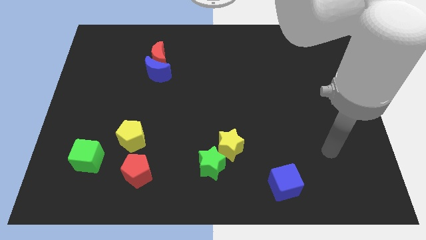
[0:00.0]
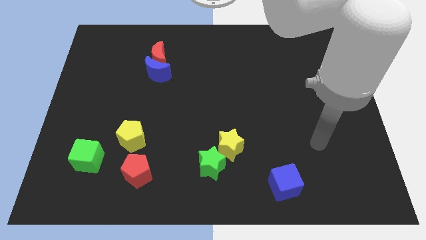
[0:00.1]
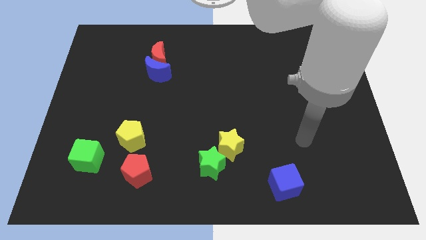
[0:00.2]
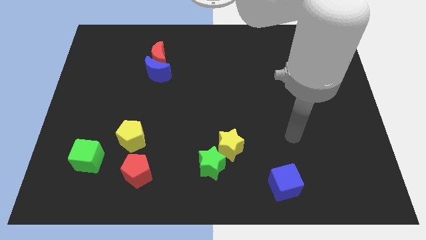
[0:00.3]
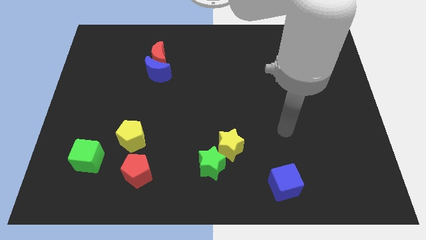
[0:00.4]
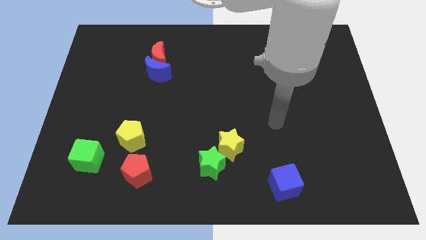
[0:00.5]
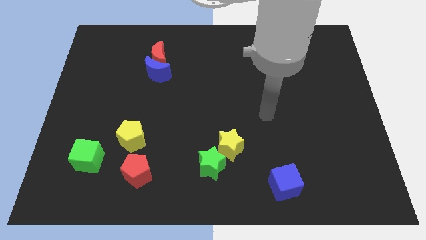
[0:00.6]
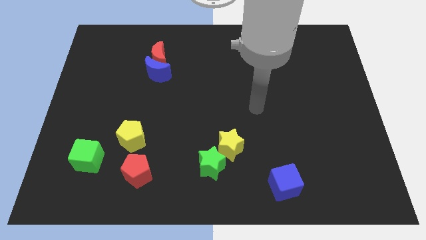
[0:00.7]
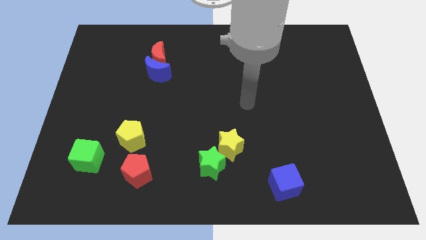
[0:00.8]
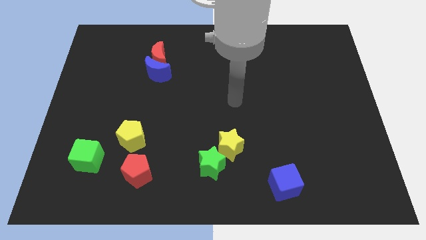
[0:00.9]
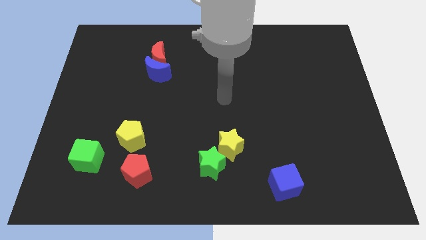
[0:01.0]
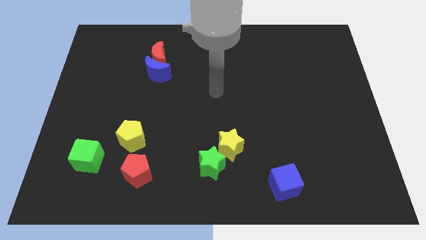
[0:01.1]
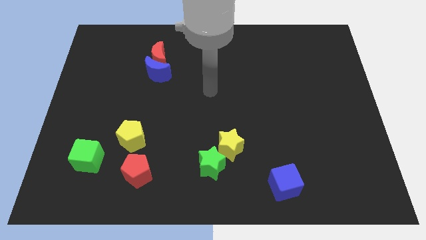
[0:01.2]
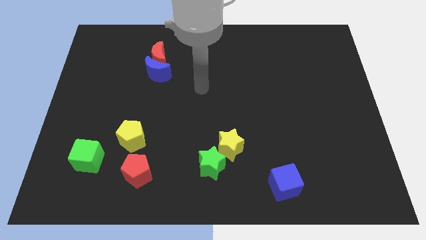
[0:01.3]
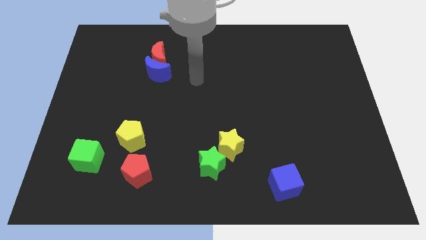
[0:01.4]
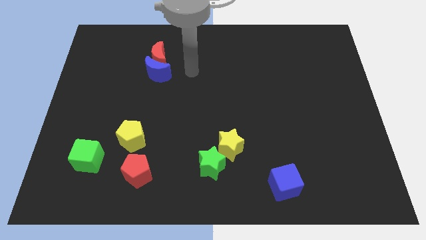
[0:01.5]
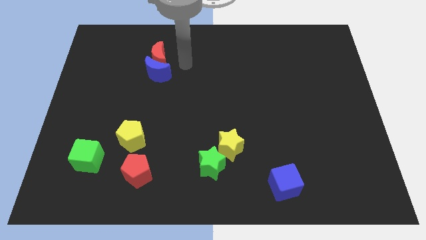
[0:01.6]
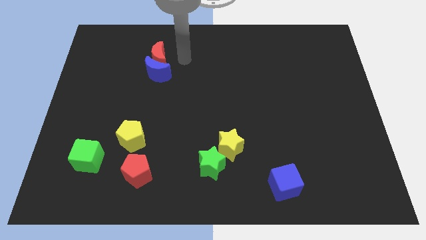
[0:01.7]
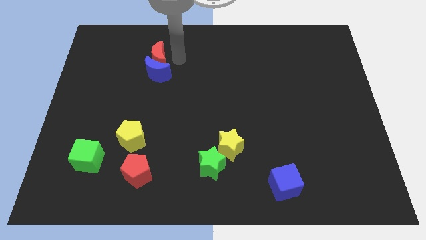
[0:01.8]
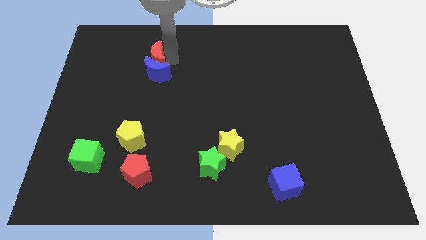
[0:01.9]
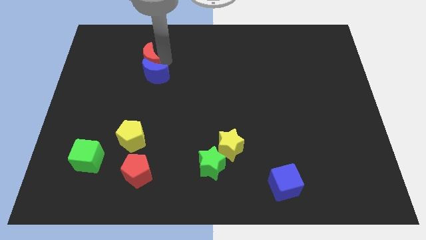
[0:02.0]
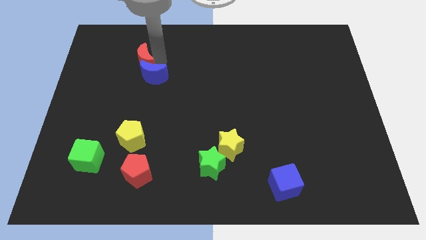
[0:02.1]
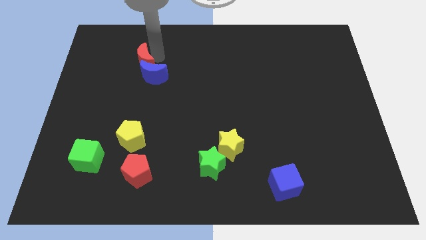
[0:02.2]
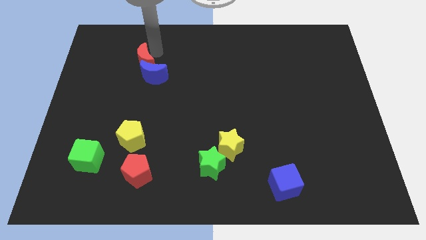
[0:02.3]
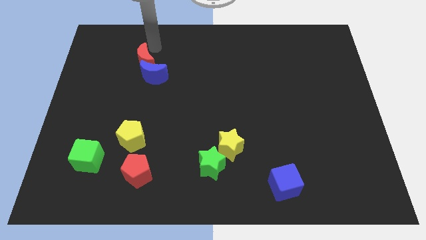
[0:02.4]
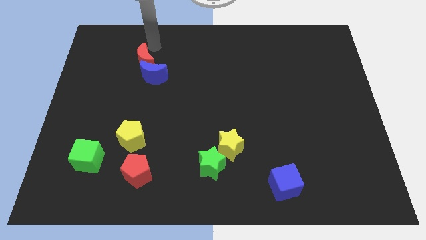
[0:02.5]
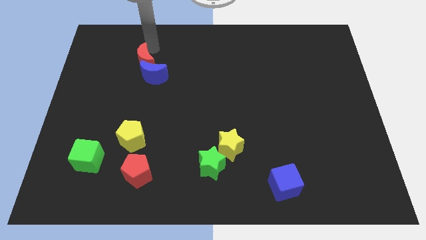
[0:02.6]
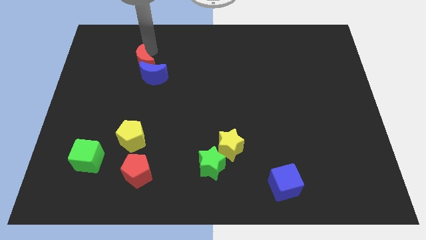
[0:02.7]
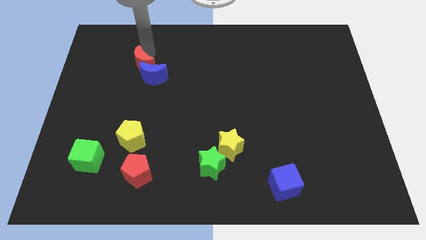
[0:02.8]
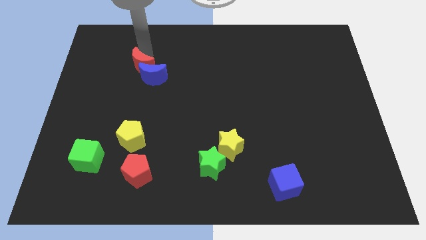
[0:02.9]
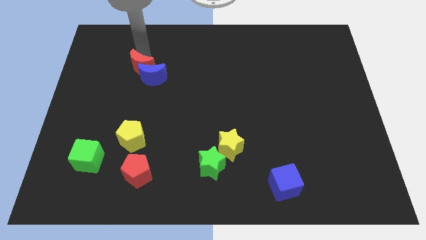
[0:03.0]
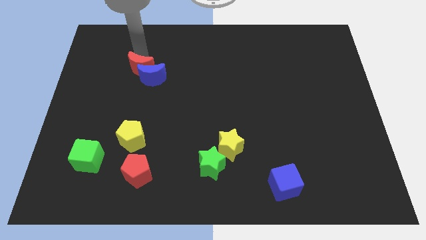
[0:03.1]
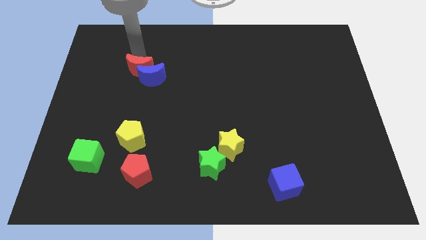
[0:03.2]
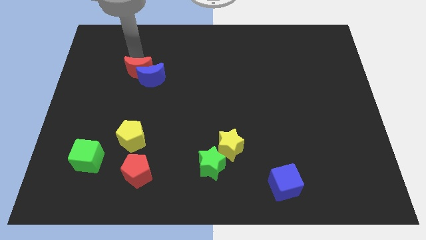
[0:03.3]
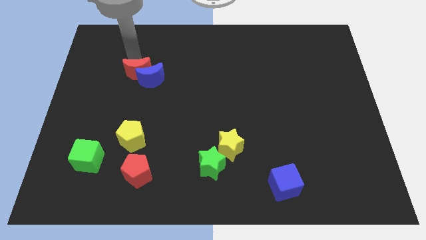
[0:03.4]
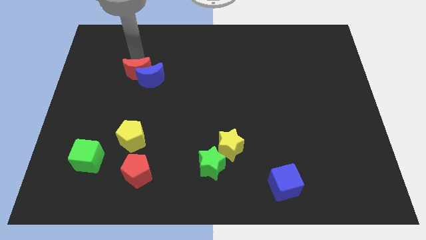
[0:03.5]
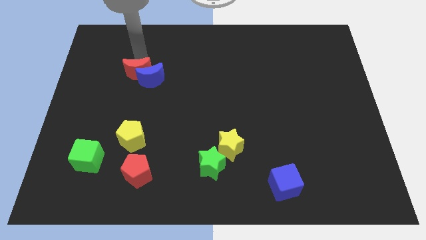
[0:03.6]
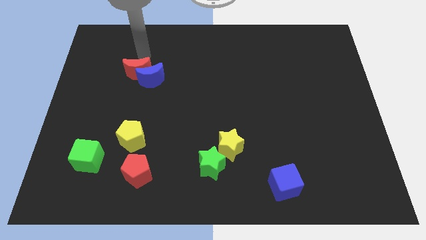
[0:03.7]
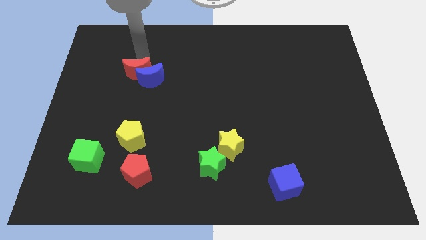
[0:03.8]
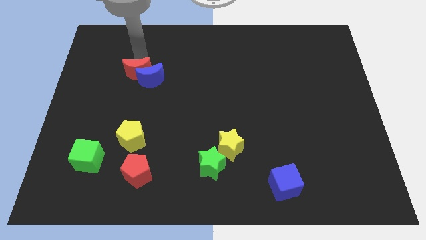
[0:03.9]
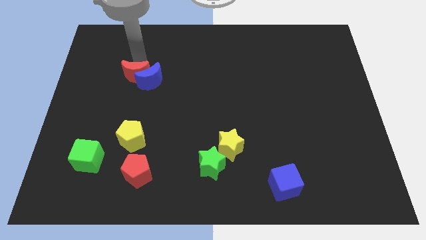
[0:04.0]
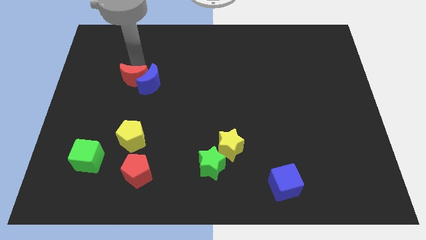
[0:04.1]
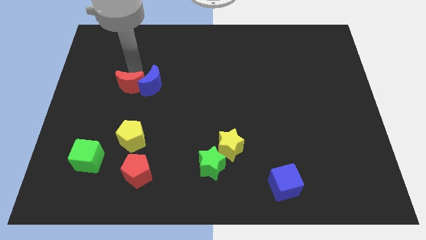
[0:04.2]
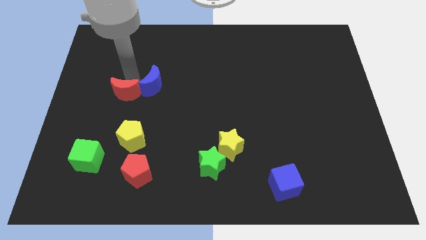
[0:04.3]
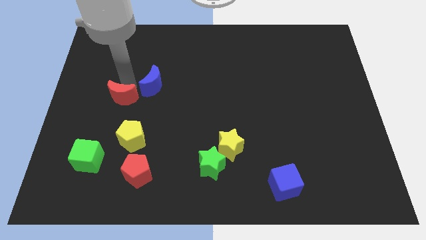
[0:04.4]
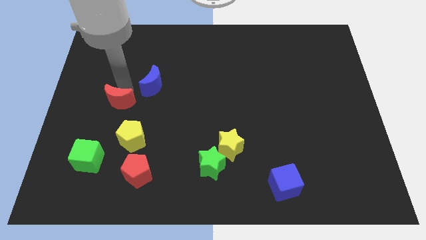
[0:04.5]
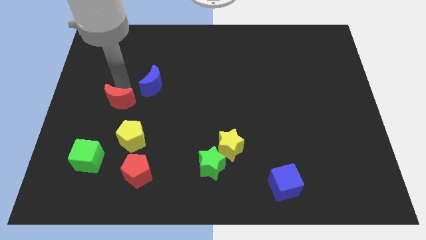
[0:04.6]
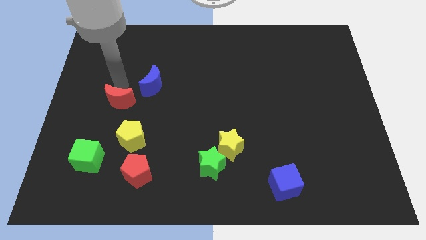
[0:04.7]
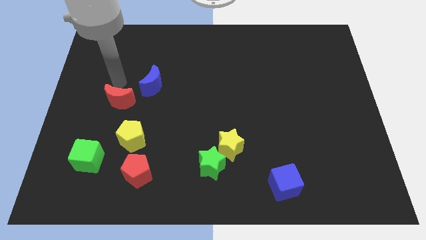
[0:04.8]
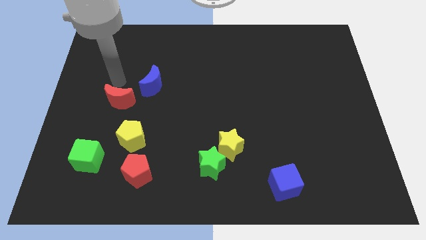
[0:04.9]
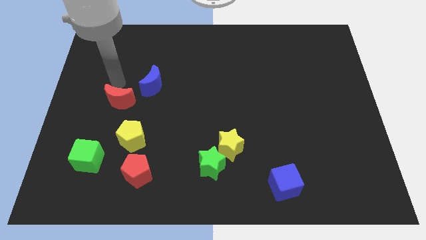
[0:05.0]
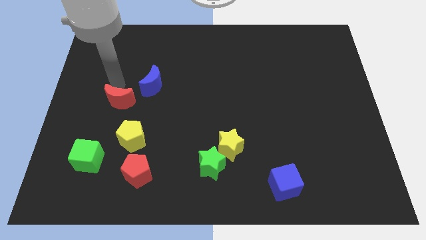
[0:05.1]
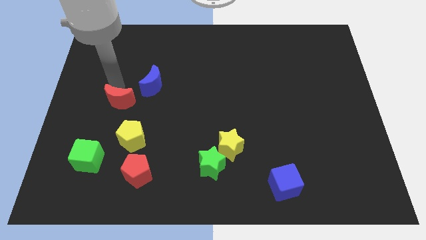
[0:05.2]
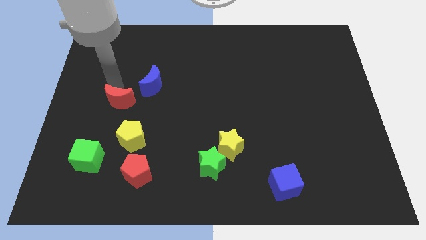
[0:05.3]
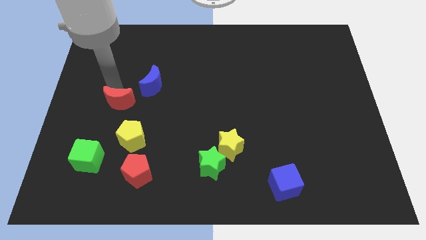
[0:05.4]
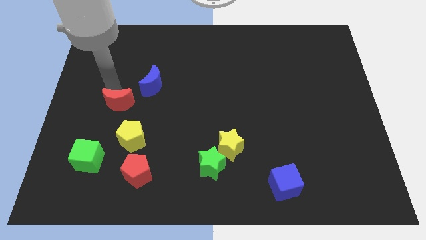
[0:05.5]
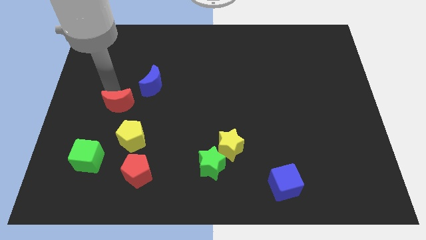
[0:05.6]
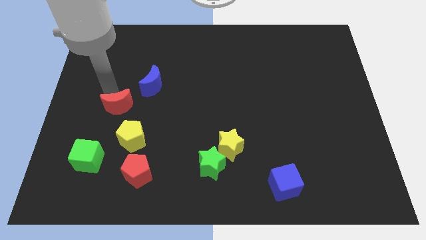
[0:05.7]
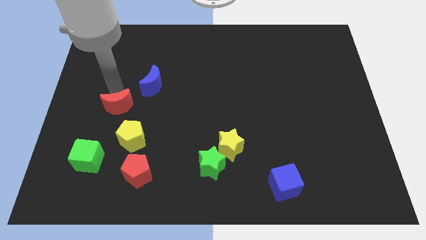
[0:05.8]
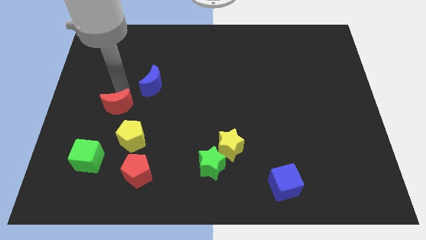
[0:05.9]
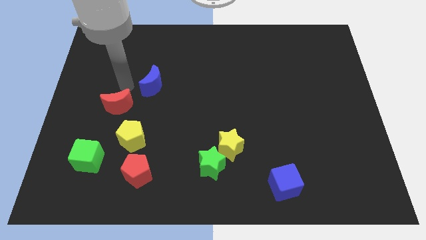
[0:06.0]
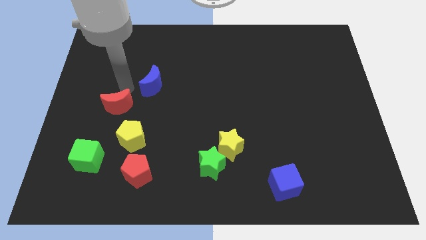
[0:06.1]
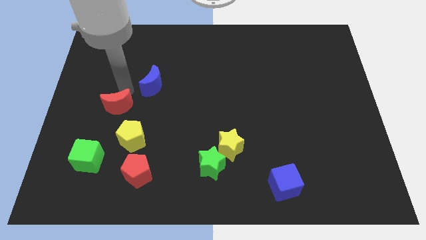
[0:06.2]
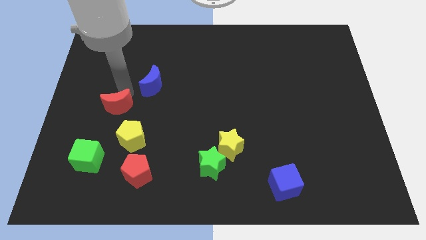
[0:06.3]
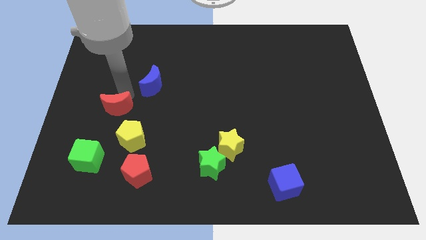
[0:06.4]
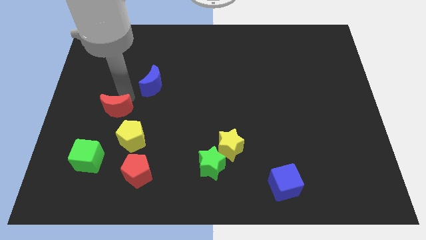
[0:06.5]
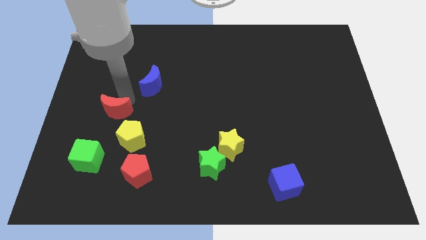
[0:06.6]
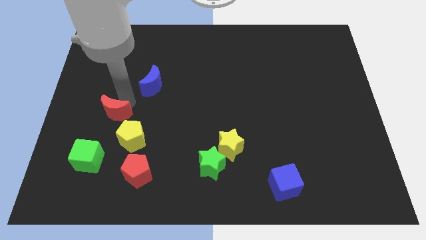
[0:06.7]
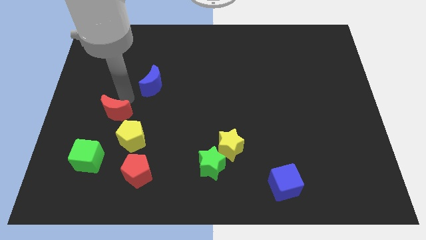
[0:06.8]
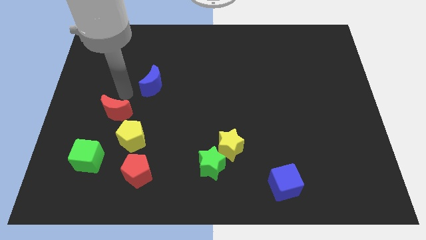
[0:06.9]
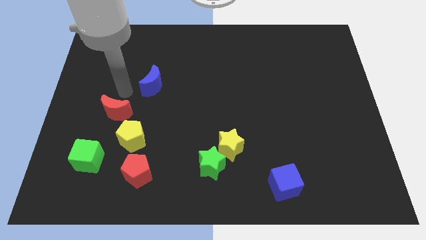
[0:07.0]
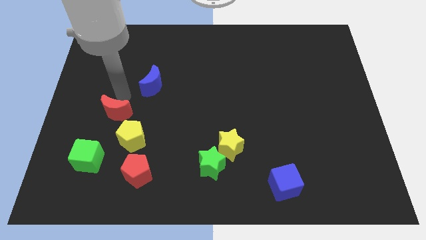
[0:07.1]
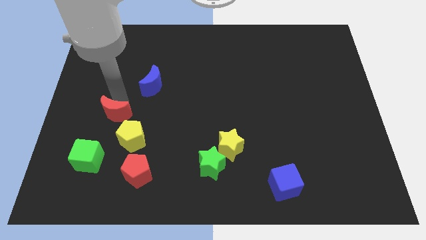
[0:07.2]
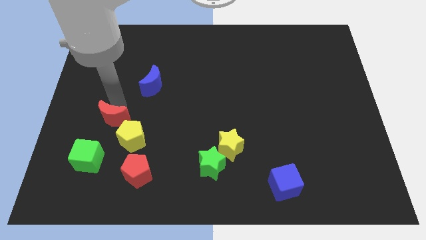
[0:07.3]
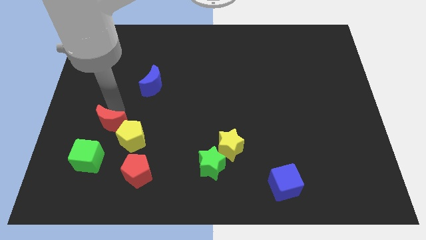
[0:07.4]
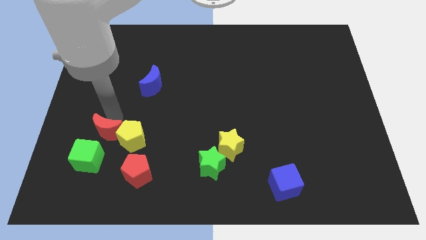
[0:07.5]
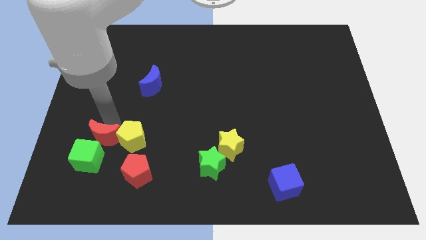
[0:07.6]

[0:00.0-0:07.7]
slide the red moon next to the green cube
